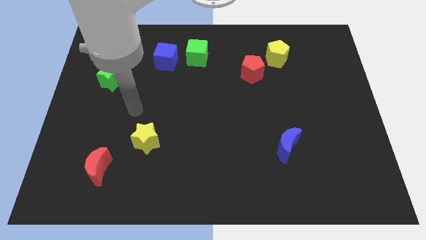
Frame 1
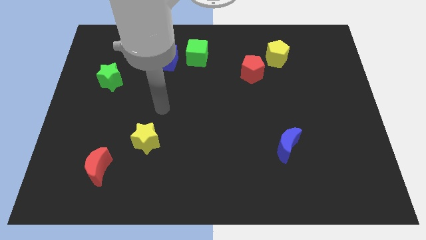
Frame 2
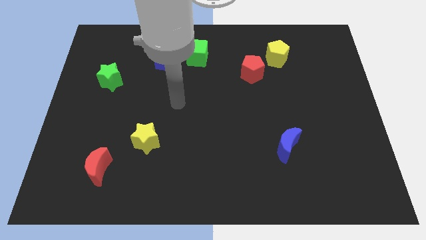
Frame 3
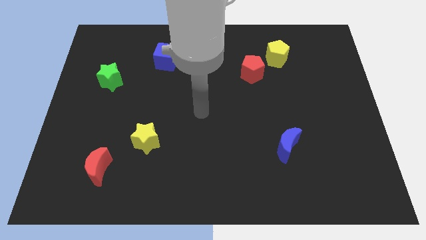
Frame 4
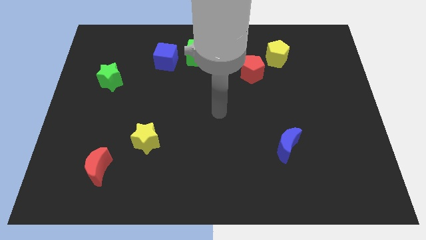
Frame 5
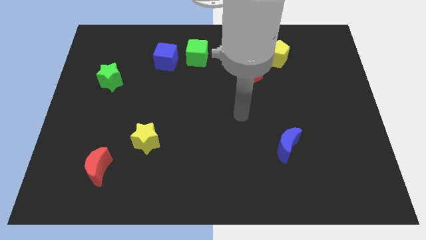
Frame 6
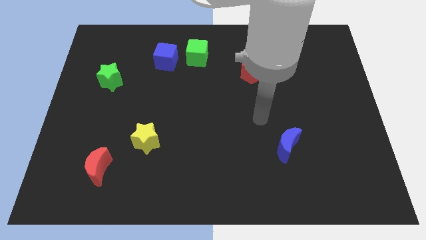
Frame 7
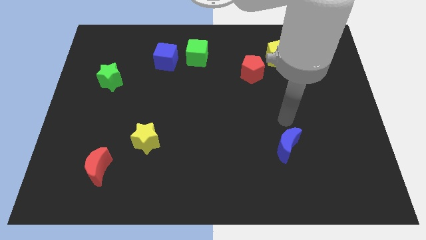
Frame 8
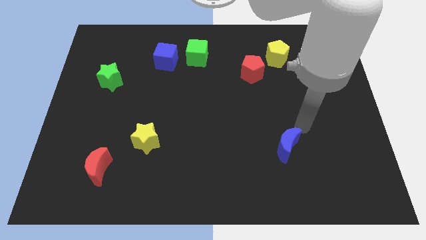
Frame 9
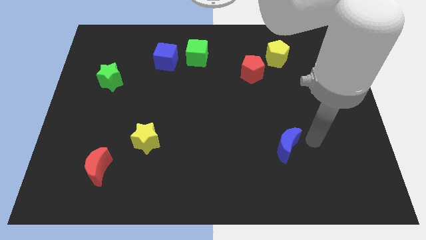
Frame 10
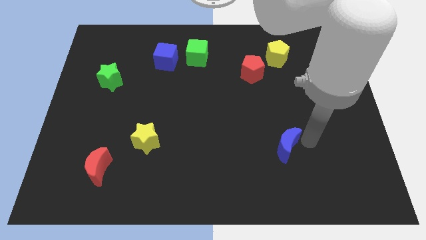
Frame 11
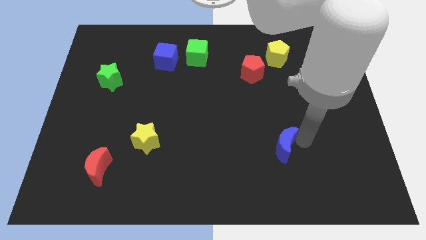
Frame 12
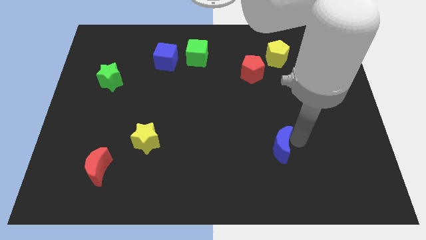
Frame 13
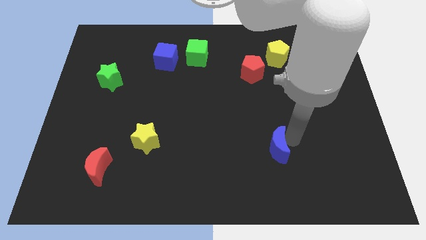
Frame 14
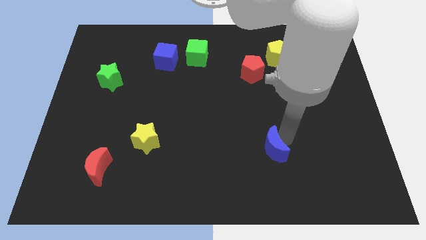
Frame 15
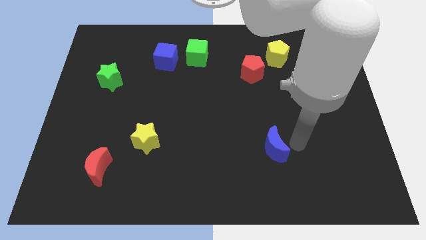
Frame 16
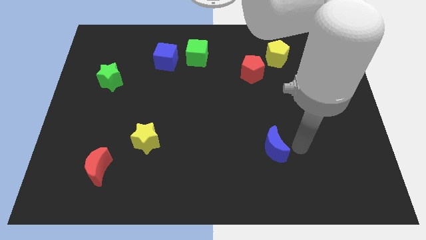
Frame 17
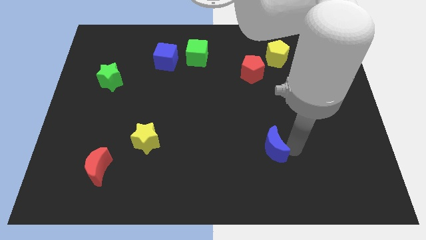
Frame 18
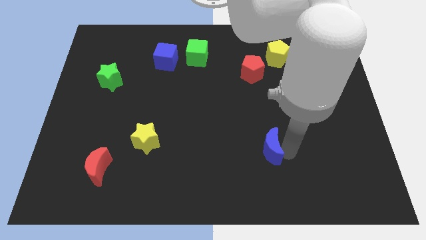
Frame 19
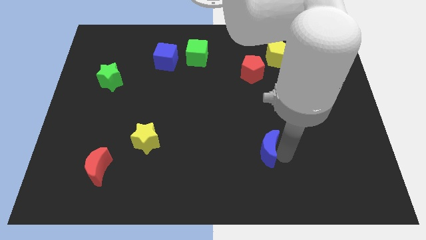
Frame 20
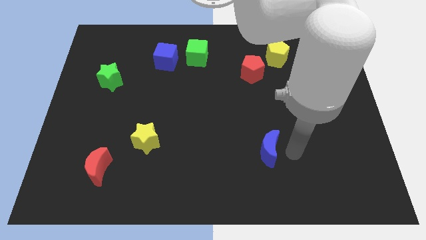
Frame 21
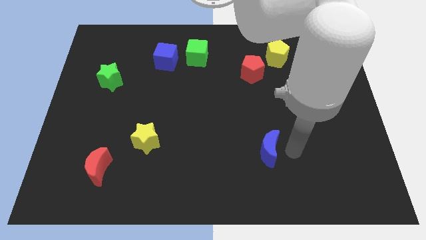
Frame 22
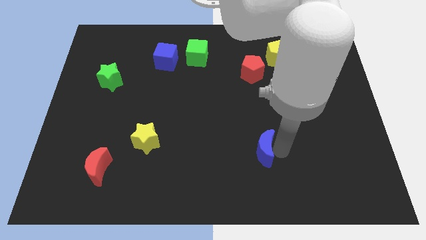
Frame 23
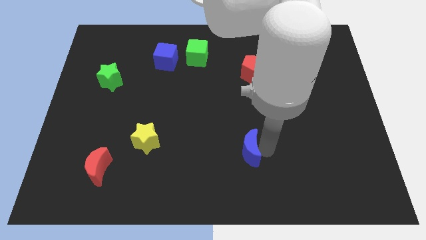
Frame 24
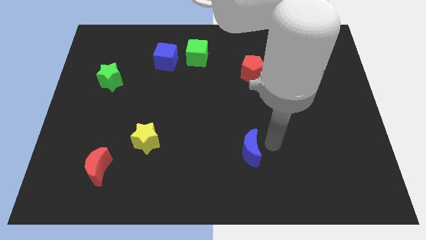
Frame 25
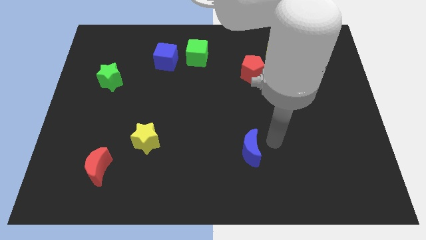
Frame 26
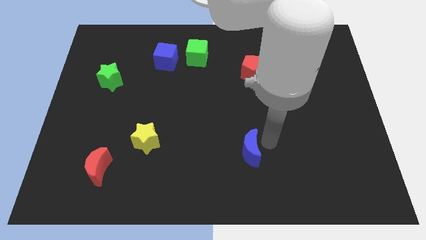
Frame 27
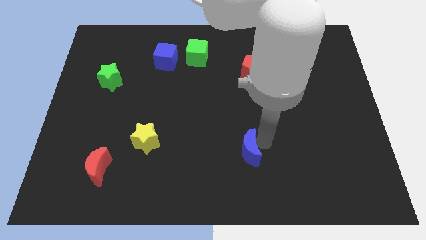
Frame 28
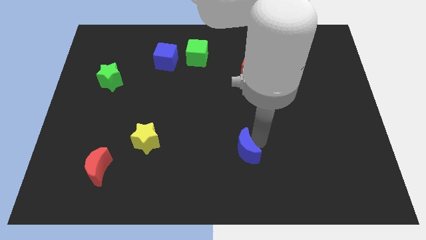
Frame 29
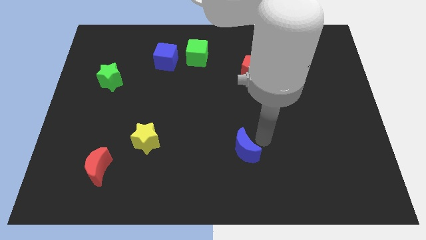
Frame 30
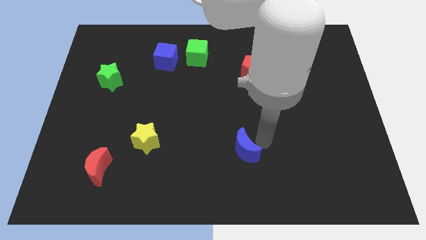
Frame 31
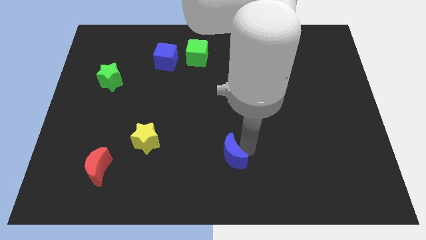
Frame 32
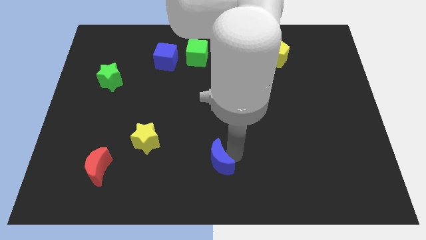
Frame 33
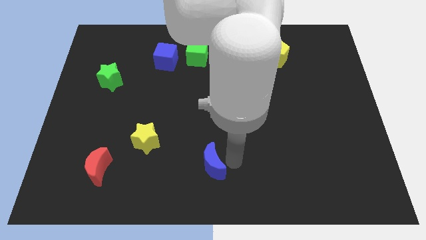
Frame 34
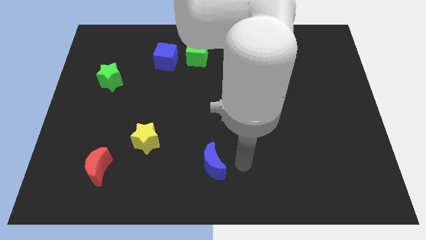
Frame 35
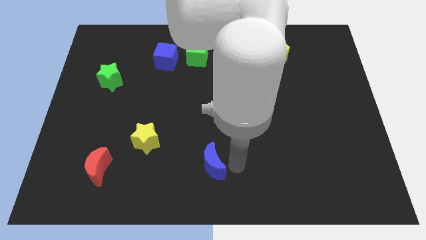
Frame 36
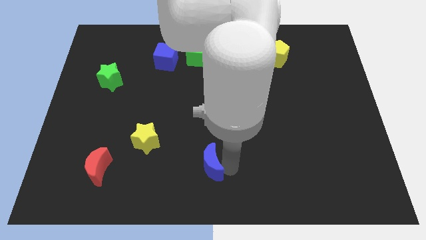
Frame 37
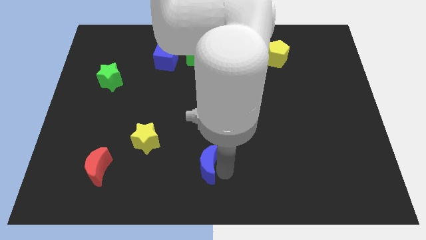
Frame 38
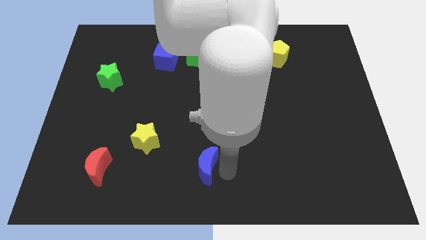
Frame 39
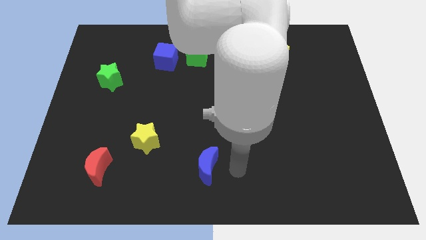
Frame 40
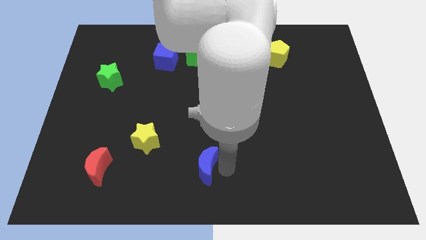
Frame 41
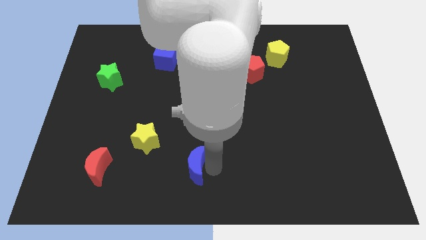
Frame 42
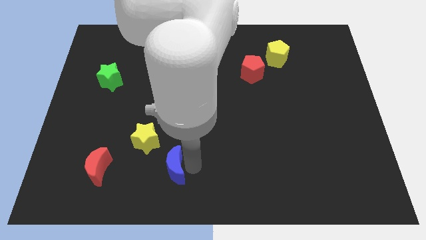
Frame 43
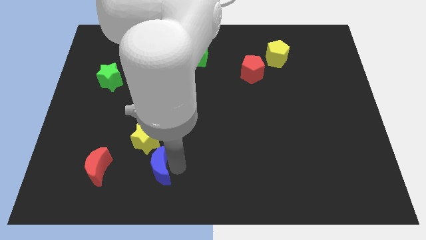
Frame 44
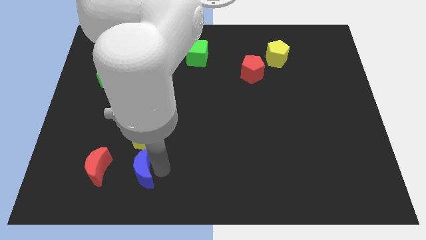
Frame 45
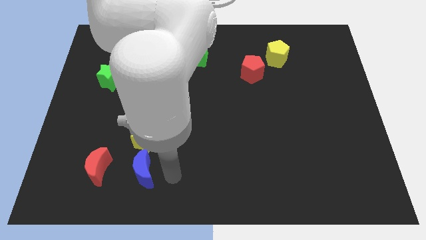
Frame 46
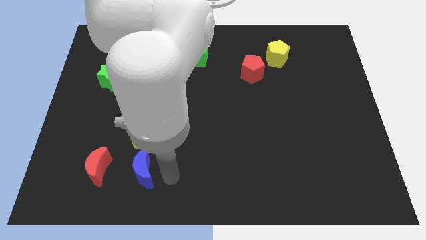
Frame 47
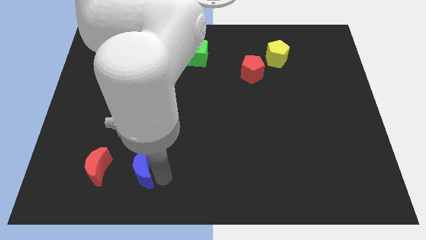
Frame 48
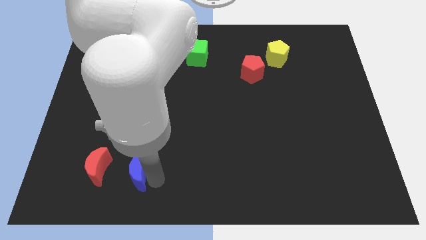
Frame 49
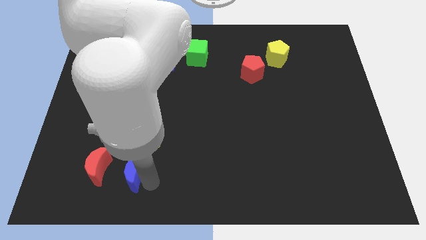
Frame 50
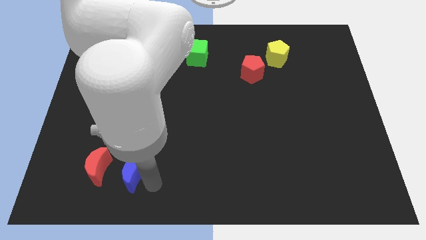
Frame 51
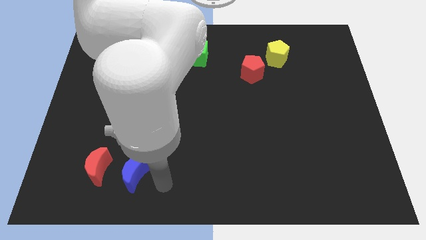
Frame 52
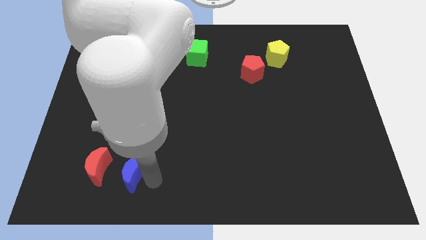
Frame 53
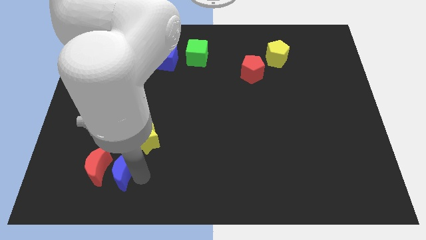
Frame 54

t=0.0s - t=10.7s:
move the blue moon next to the red moon

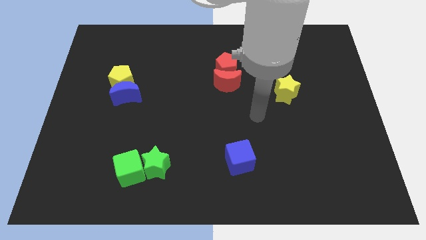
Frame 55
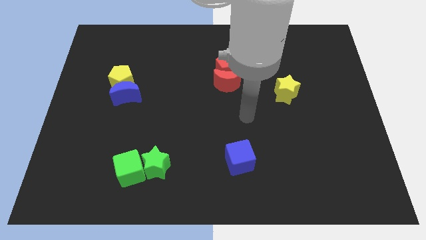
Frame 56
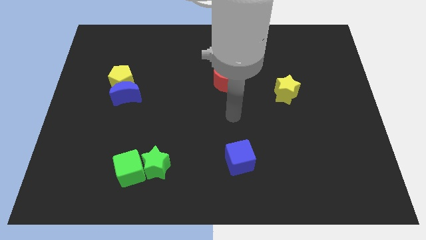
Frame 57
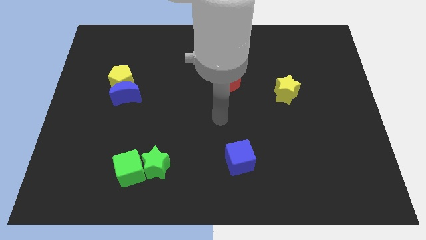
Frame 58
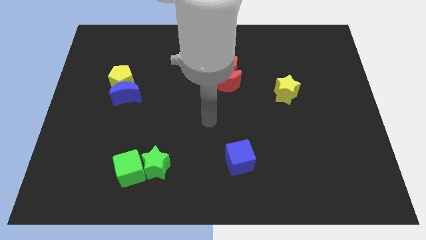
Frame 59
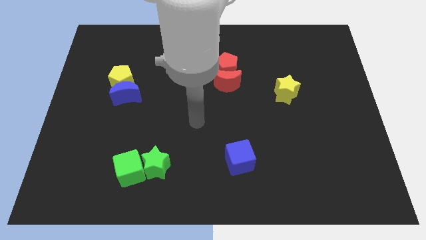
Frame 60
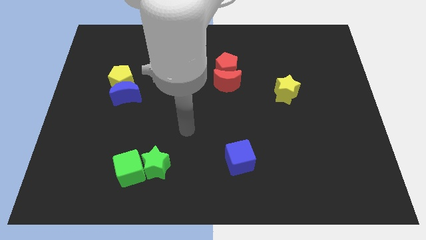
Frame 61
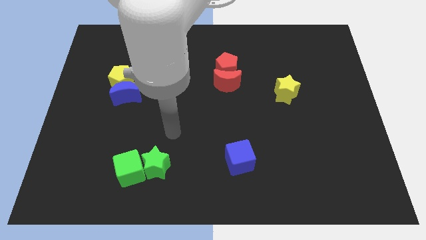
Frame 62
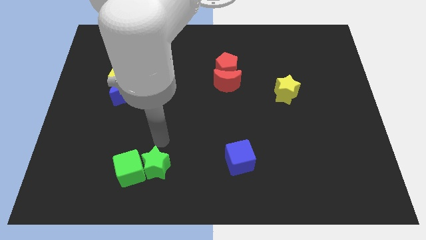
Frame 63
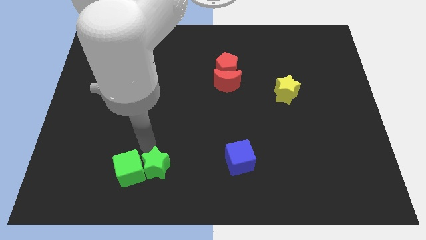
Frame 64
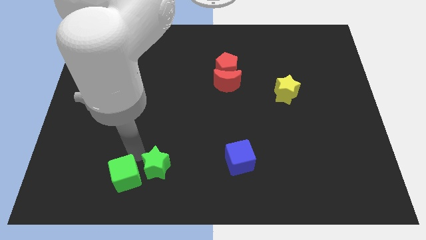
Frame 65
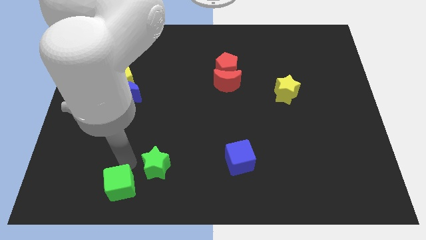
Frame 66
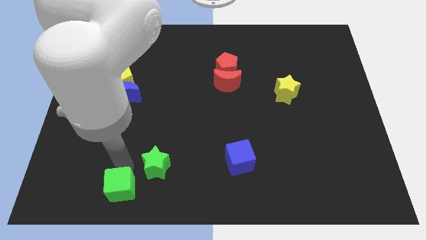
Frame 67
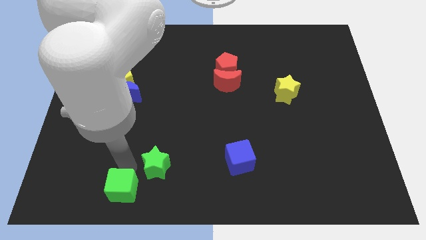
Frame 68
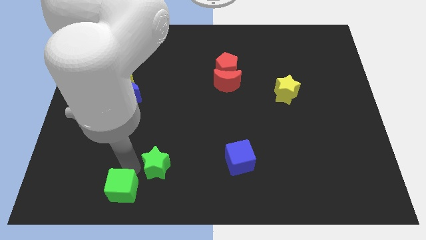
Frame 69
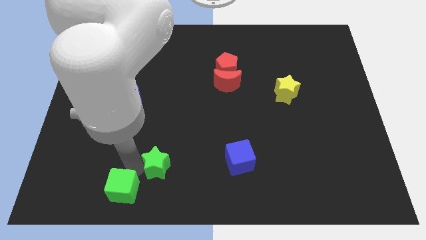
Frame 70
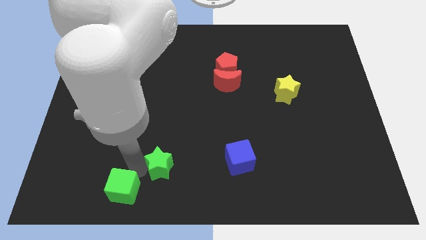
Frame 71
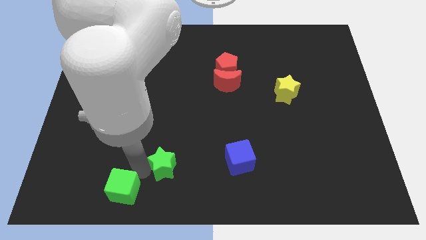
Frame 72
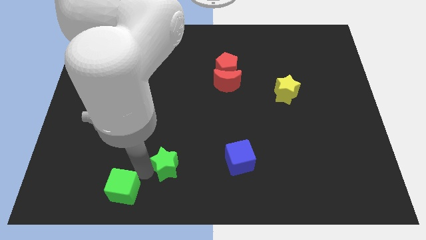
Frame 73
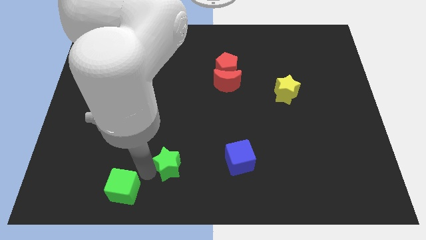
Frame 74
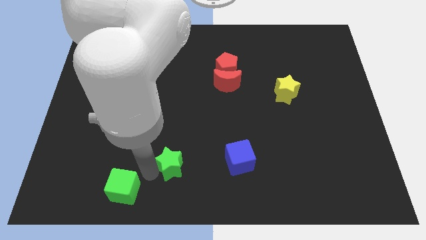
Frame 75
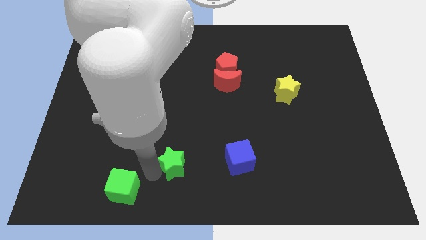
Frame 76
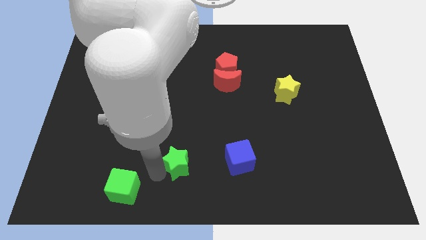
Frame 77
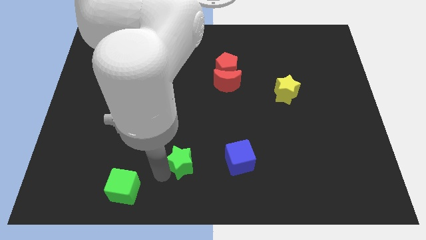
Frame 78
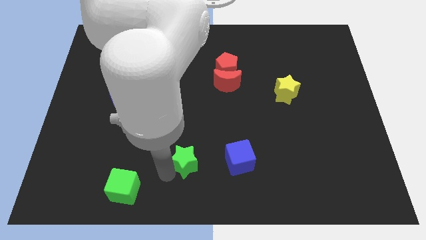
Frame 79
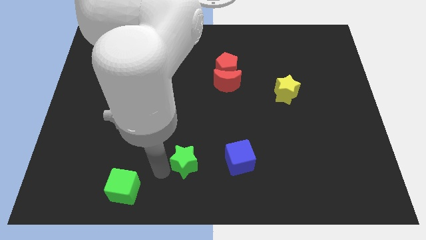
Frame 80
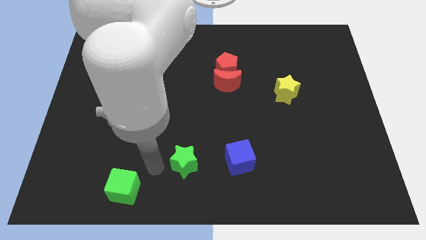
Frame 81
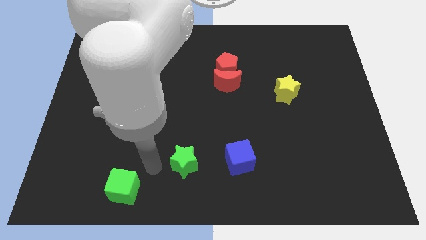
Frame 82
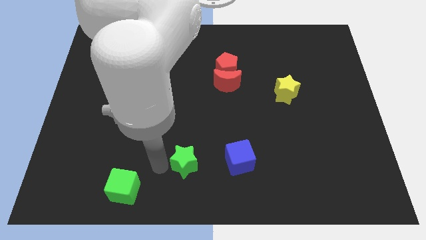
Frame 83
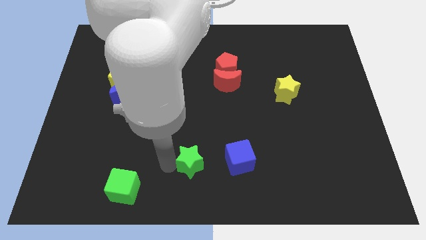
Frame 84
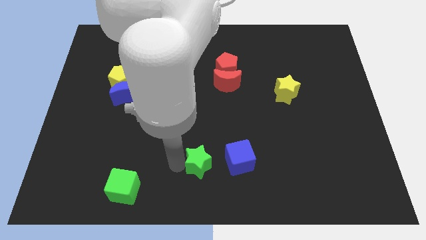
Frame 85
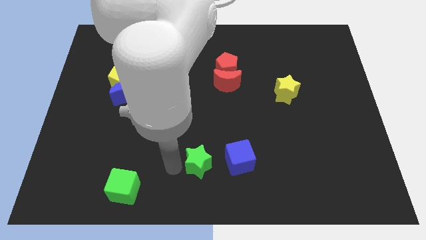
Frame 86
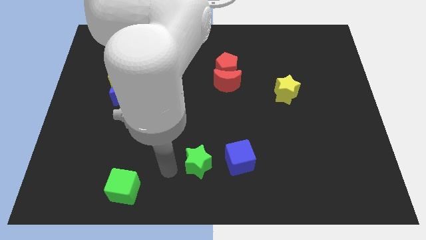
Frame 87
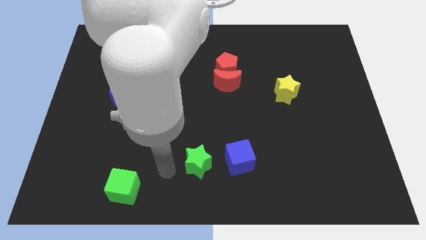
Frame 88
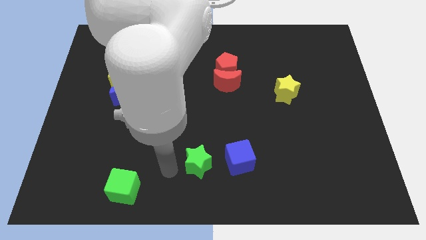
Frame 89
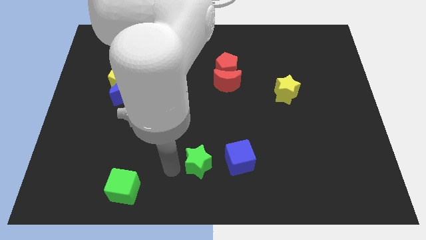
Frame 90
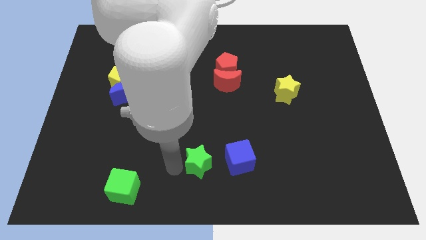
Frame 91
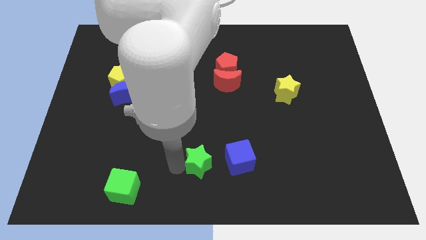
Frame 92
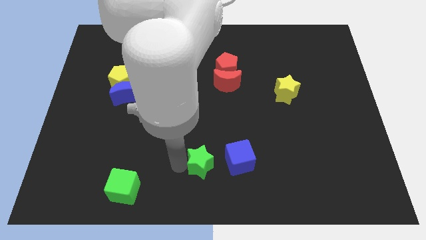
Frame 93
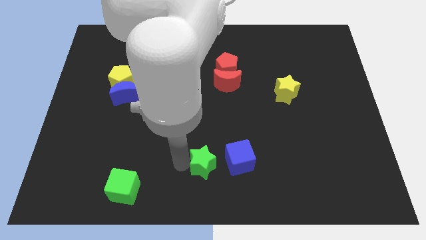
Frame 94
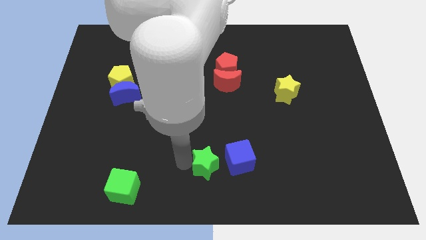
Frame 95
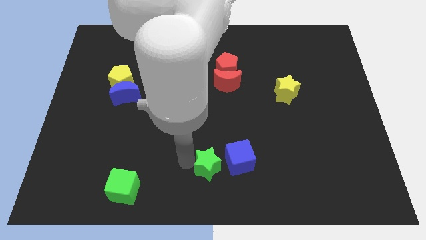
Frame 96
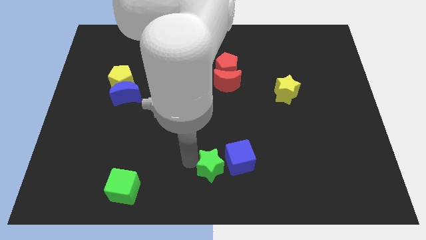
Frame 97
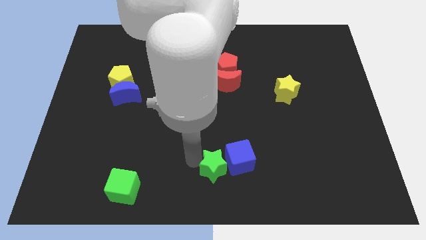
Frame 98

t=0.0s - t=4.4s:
push the green star towards the blue cube
